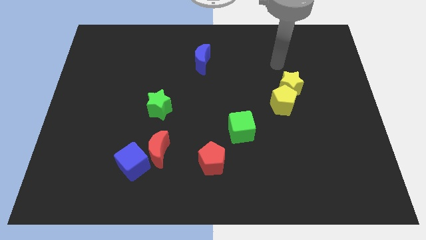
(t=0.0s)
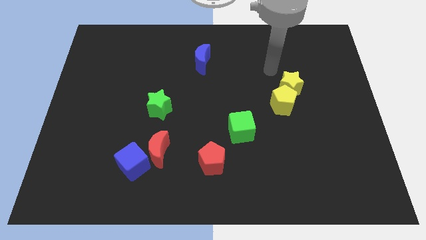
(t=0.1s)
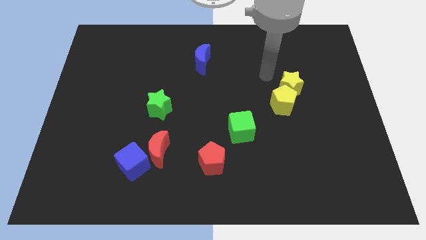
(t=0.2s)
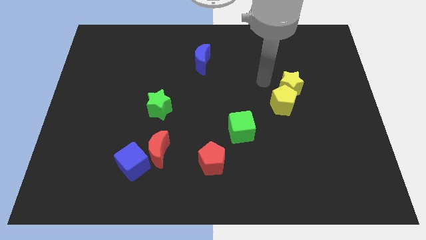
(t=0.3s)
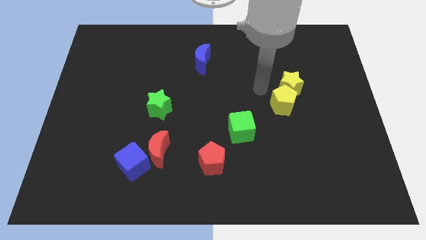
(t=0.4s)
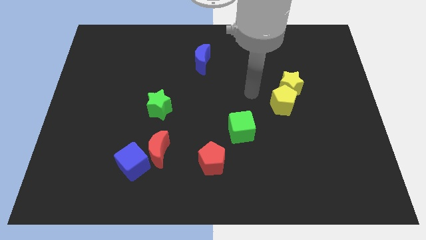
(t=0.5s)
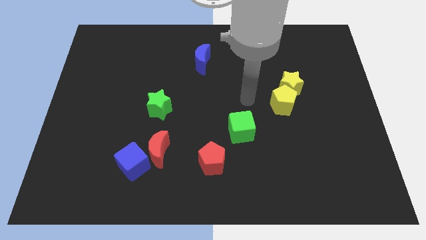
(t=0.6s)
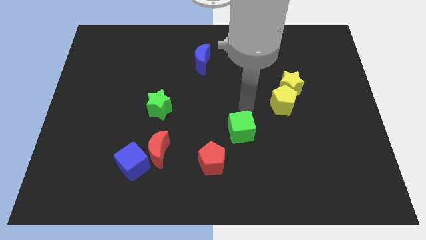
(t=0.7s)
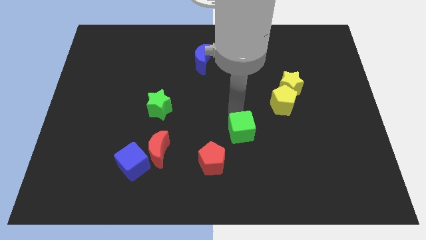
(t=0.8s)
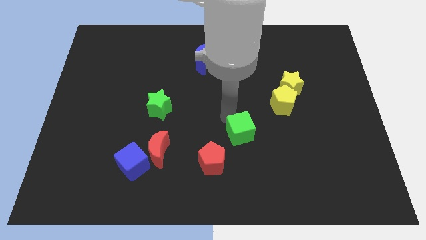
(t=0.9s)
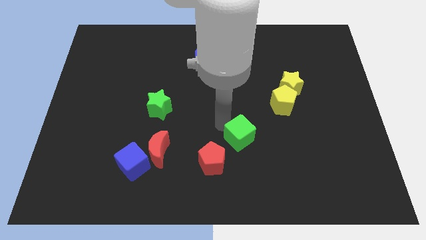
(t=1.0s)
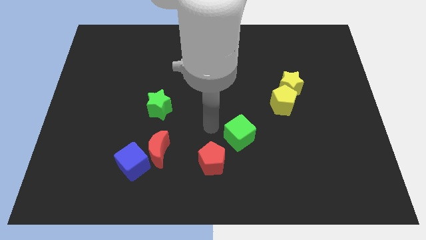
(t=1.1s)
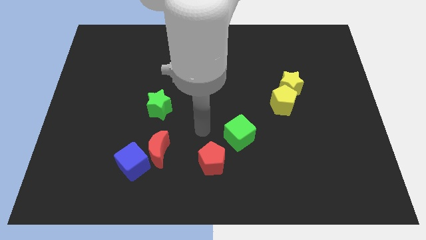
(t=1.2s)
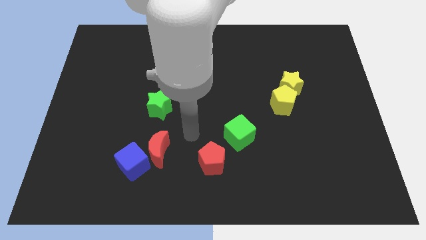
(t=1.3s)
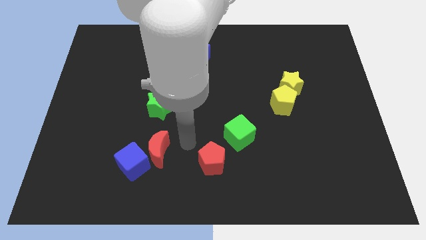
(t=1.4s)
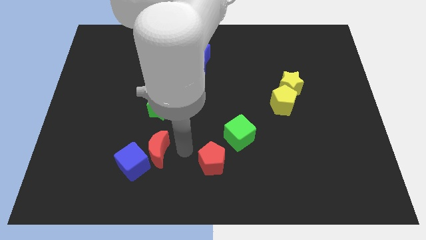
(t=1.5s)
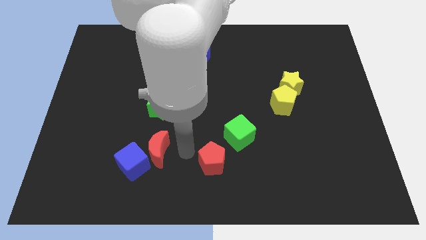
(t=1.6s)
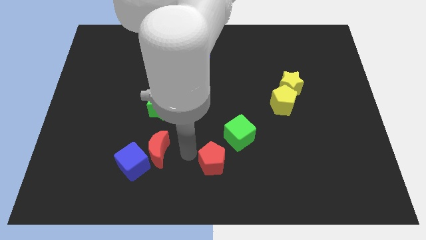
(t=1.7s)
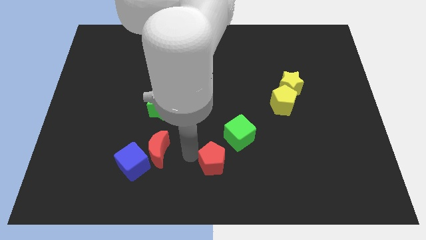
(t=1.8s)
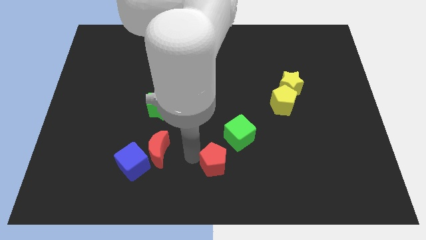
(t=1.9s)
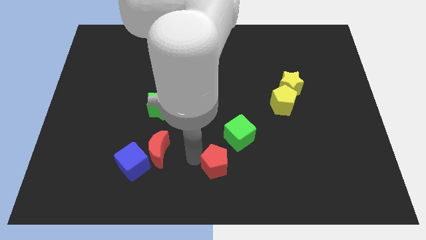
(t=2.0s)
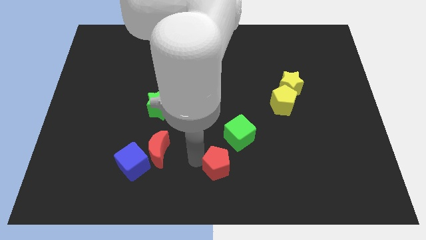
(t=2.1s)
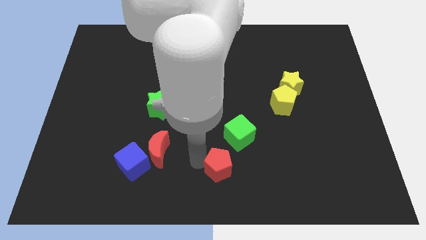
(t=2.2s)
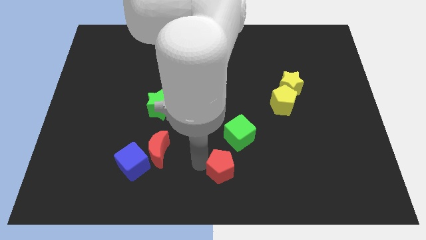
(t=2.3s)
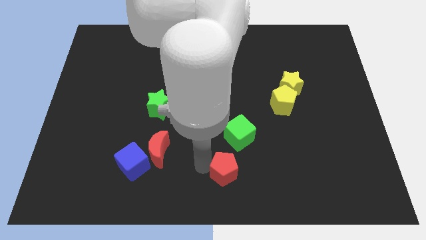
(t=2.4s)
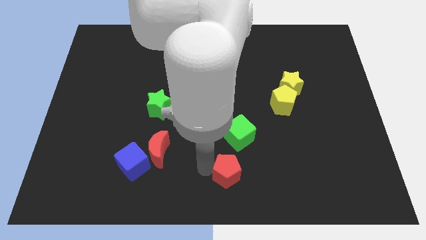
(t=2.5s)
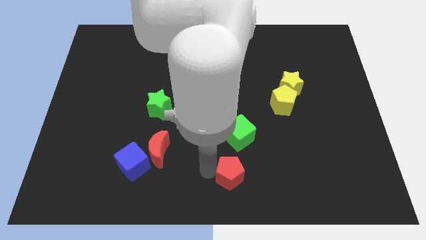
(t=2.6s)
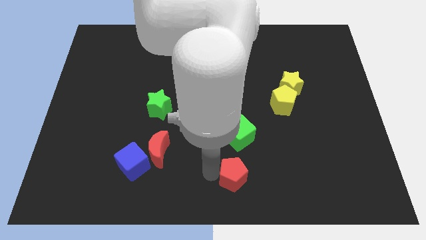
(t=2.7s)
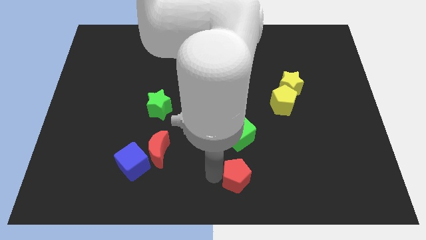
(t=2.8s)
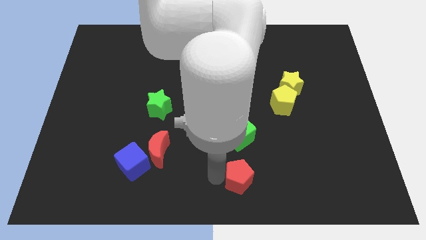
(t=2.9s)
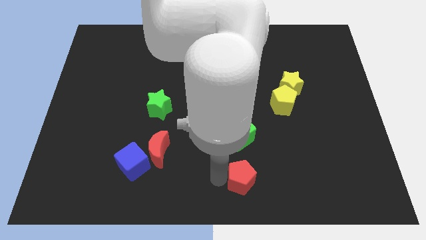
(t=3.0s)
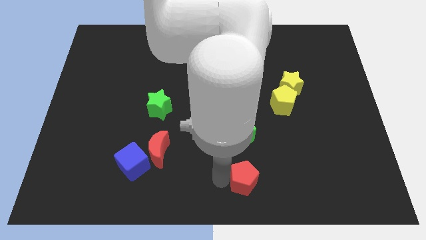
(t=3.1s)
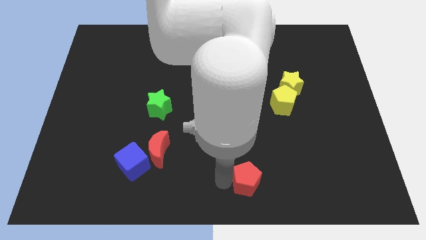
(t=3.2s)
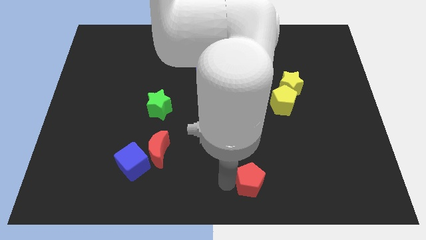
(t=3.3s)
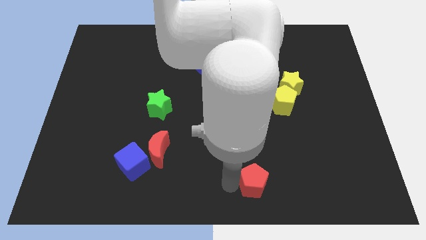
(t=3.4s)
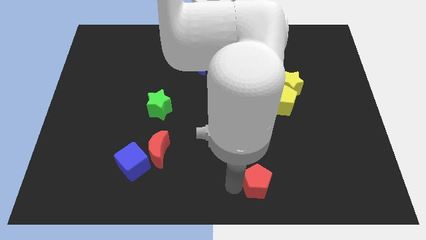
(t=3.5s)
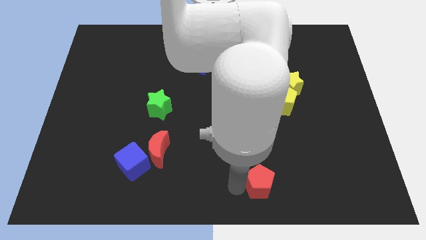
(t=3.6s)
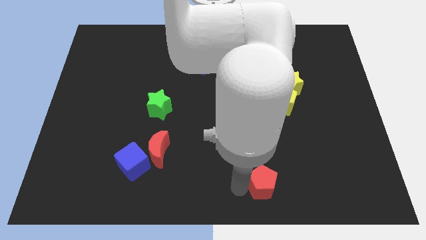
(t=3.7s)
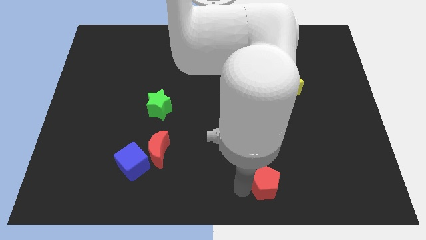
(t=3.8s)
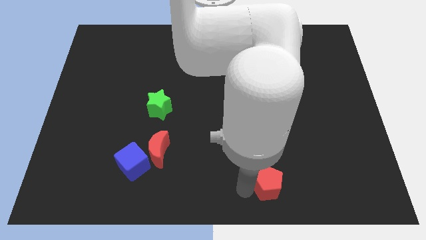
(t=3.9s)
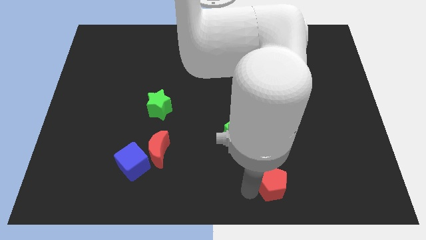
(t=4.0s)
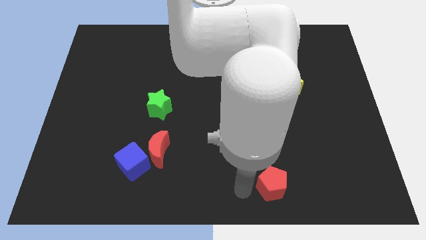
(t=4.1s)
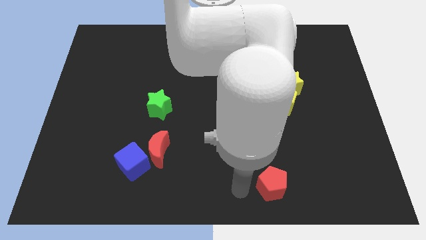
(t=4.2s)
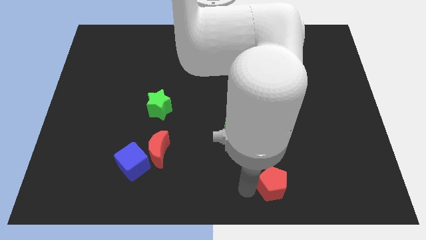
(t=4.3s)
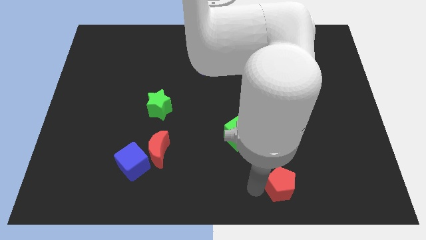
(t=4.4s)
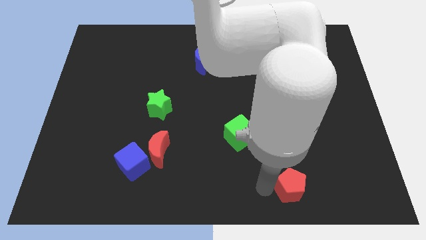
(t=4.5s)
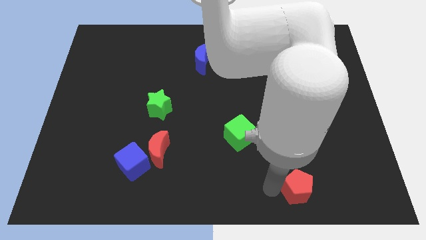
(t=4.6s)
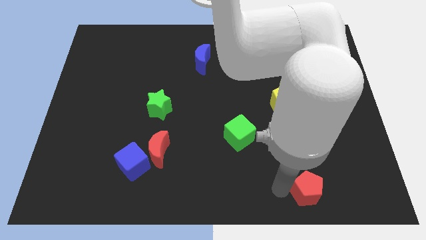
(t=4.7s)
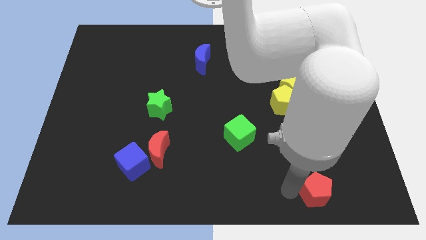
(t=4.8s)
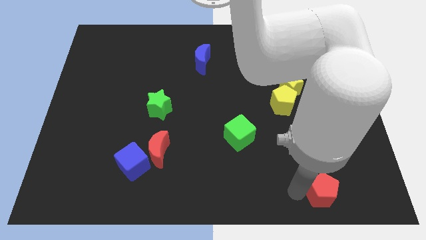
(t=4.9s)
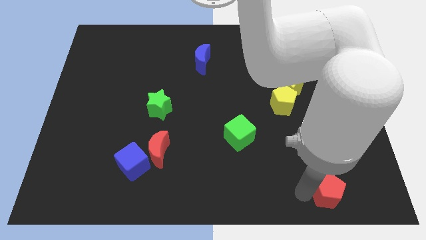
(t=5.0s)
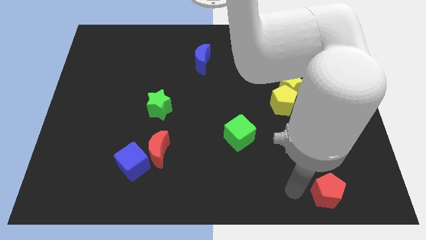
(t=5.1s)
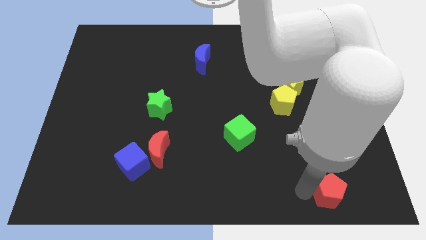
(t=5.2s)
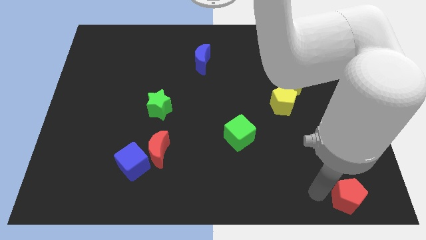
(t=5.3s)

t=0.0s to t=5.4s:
slide the red pentagon to the lower right corner
